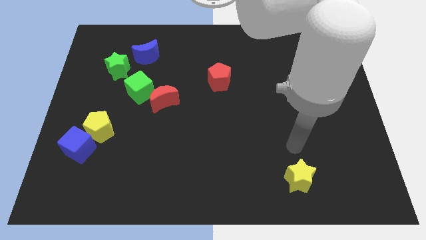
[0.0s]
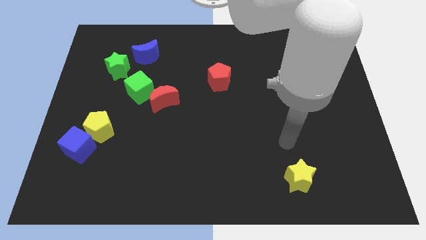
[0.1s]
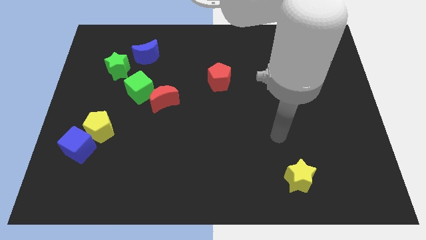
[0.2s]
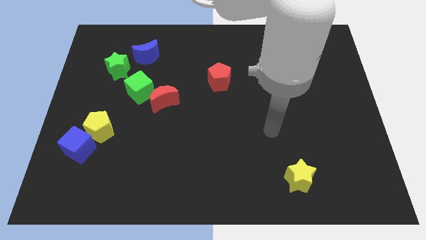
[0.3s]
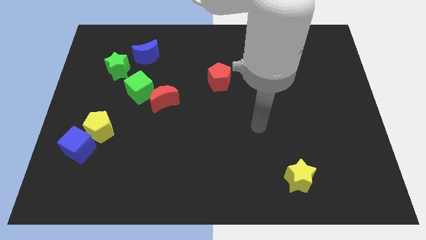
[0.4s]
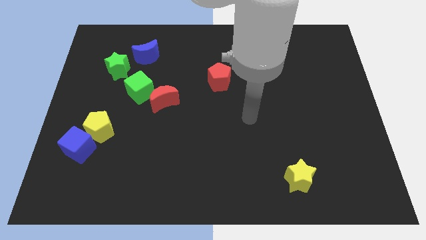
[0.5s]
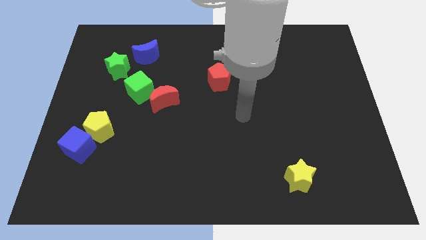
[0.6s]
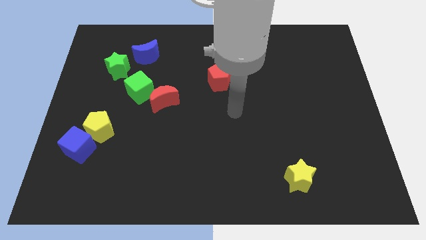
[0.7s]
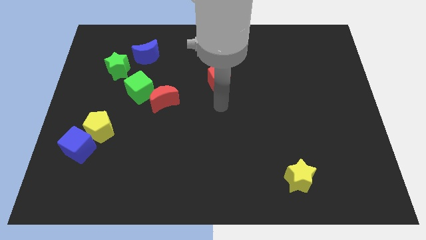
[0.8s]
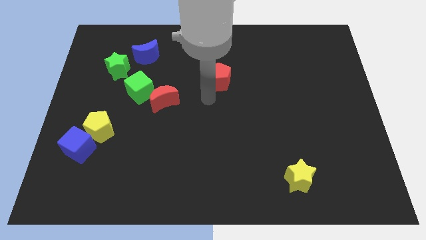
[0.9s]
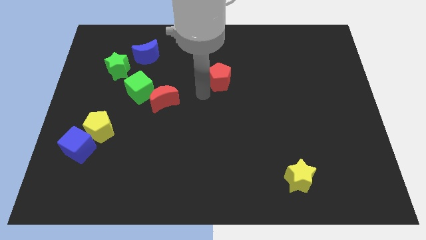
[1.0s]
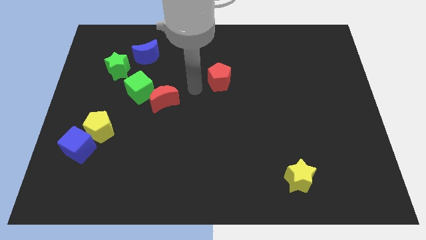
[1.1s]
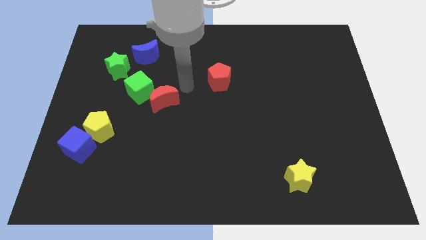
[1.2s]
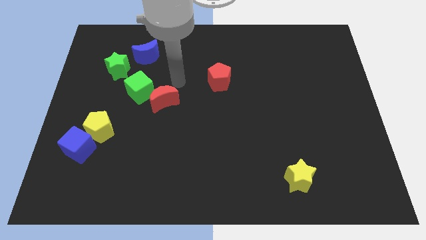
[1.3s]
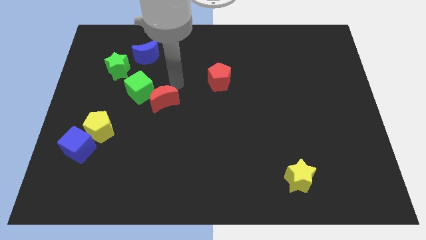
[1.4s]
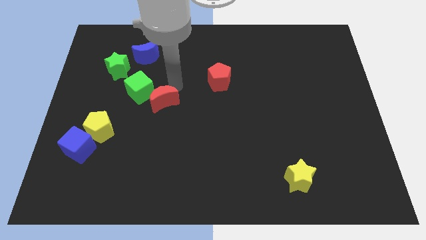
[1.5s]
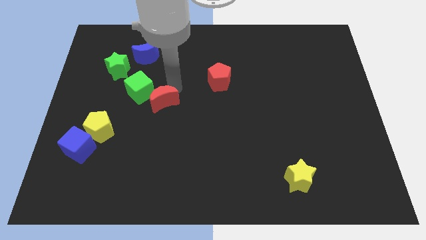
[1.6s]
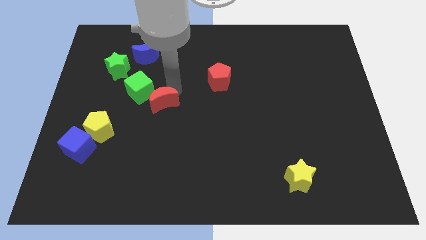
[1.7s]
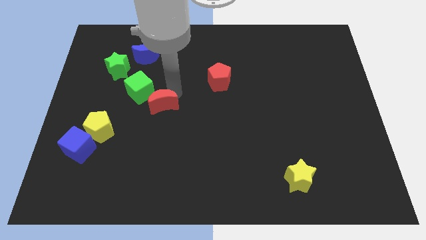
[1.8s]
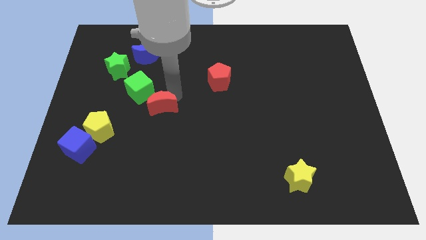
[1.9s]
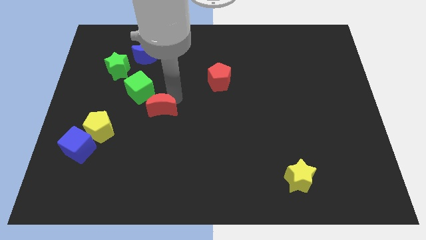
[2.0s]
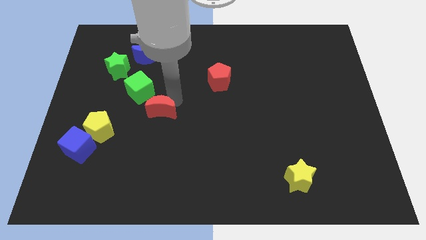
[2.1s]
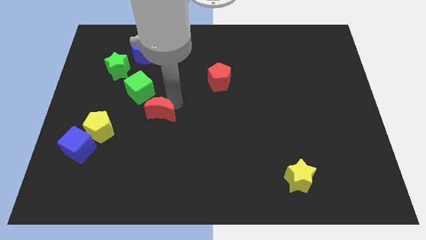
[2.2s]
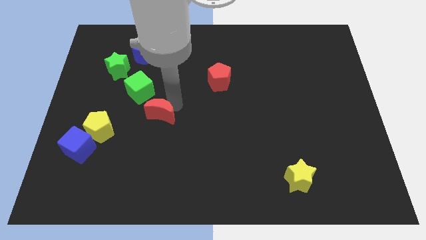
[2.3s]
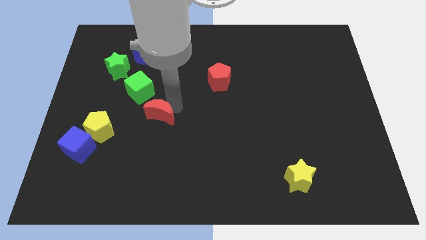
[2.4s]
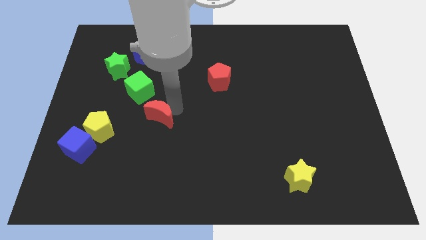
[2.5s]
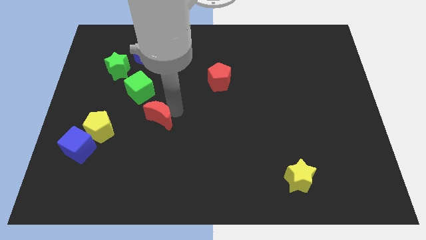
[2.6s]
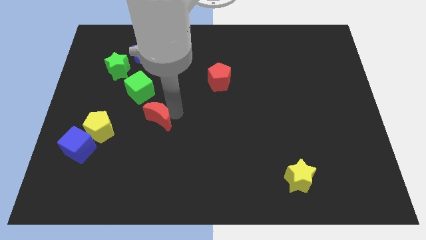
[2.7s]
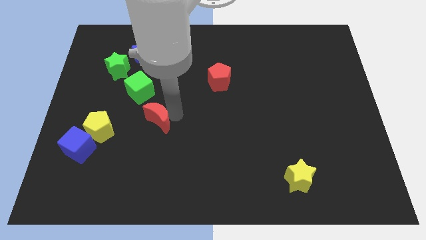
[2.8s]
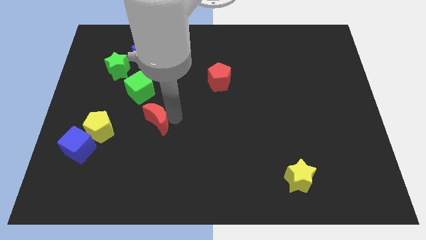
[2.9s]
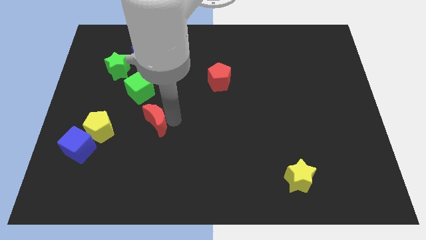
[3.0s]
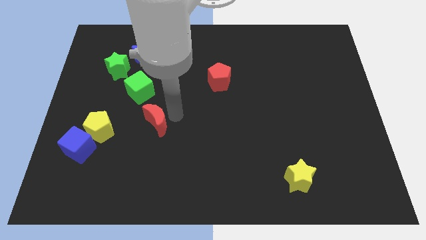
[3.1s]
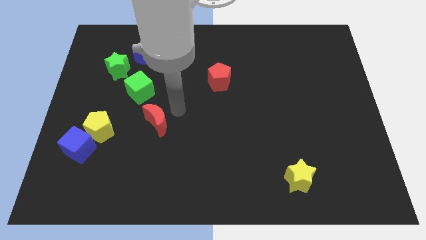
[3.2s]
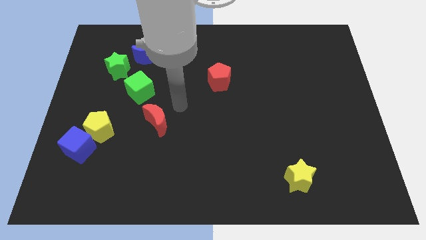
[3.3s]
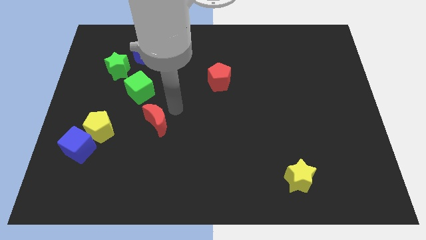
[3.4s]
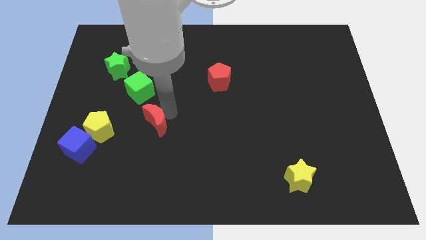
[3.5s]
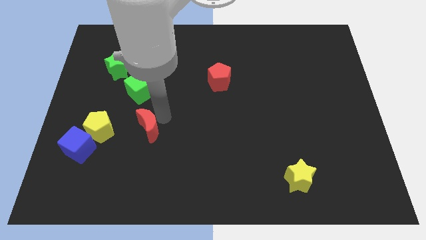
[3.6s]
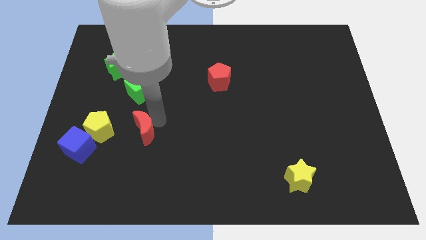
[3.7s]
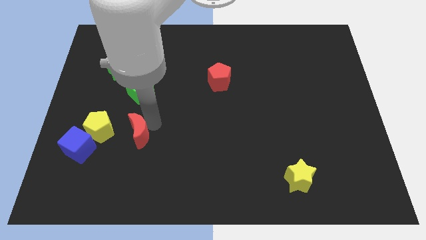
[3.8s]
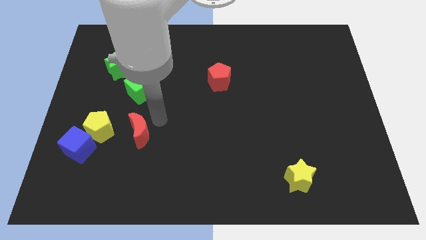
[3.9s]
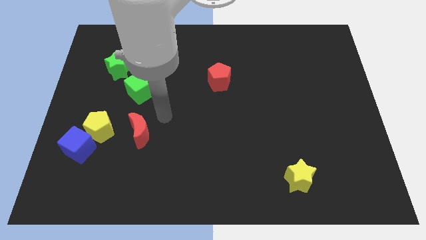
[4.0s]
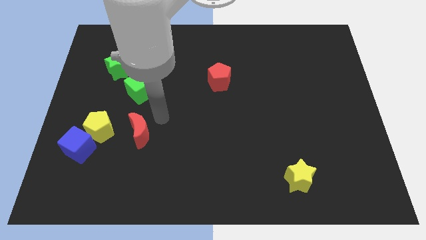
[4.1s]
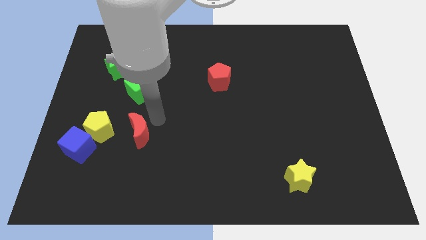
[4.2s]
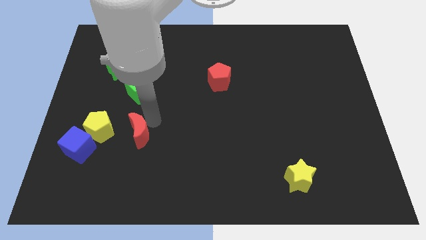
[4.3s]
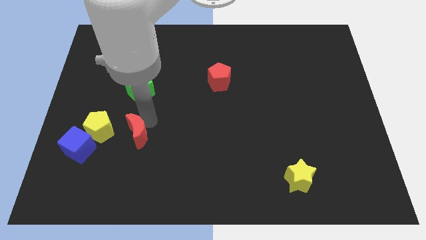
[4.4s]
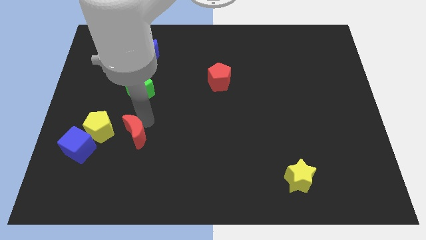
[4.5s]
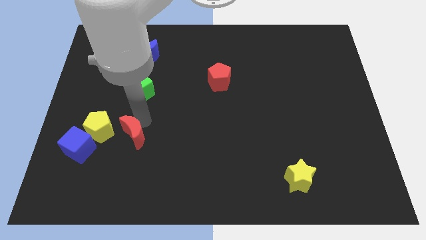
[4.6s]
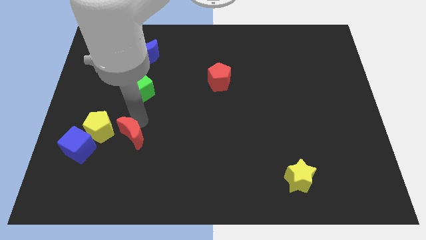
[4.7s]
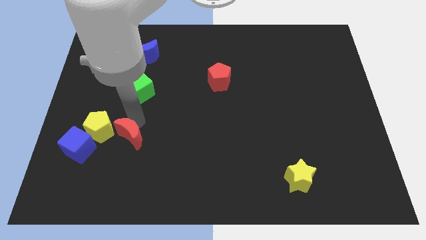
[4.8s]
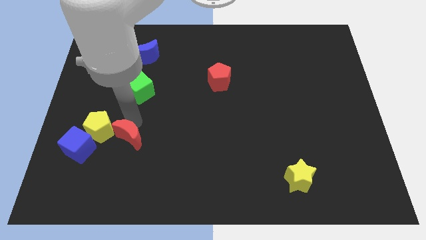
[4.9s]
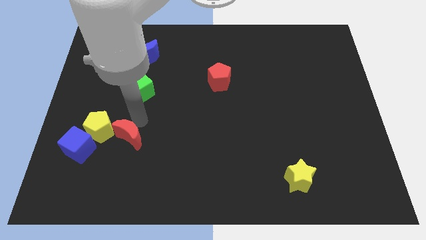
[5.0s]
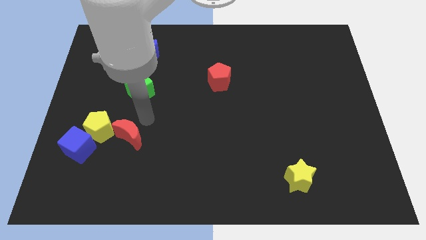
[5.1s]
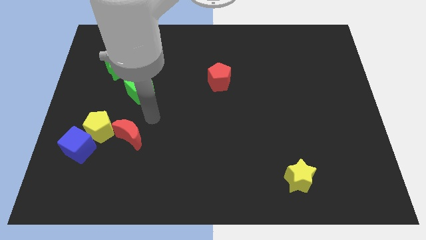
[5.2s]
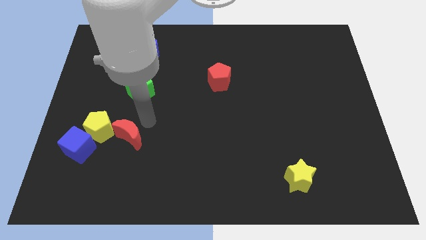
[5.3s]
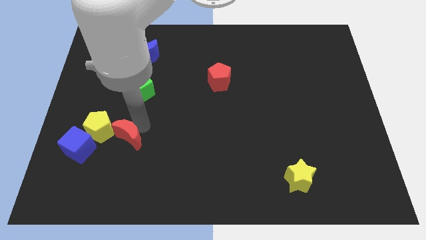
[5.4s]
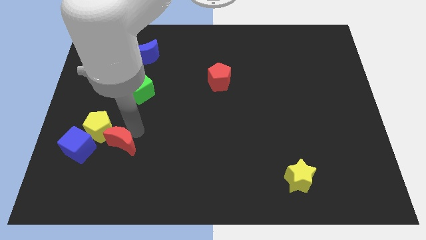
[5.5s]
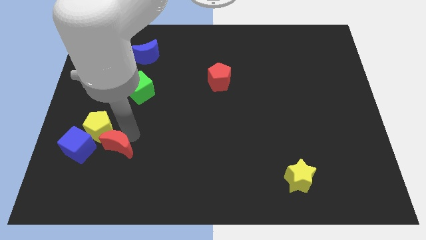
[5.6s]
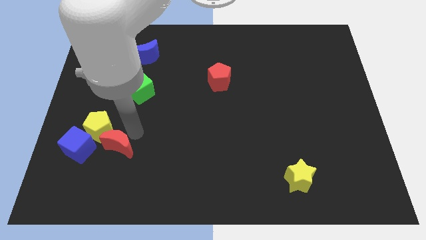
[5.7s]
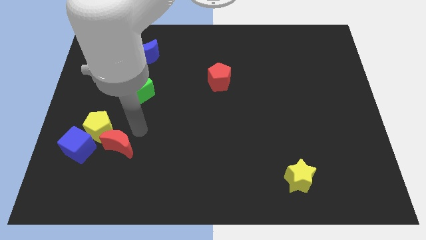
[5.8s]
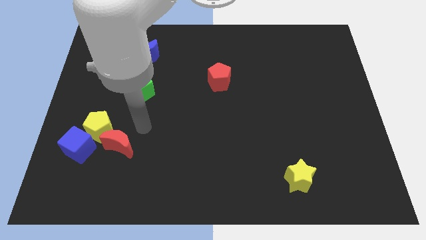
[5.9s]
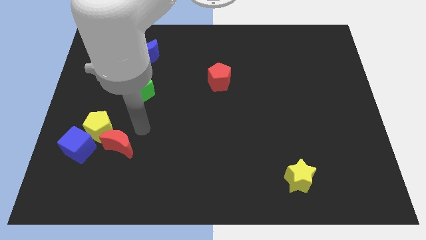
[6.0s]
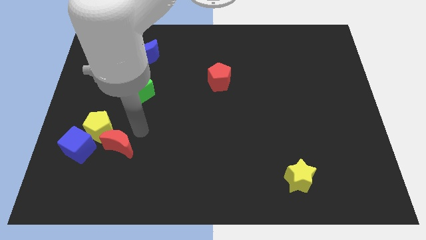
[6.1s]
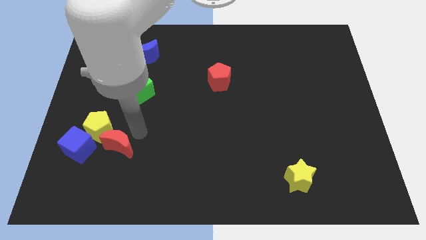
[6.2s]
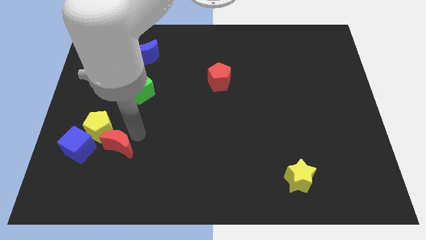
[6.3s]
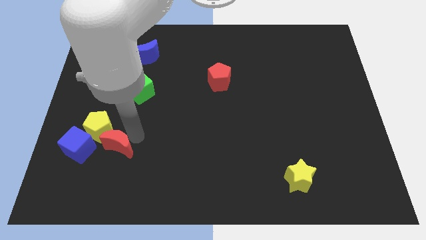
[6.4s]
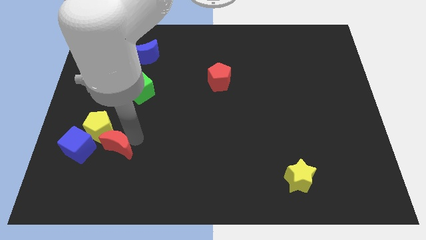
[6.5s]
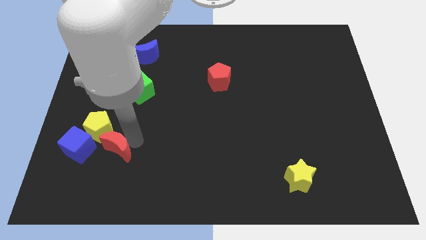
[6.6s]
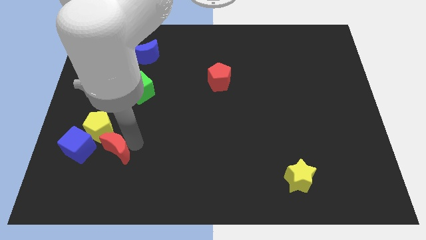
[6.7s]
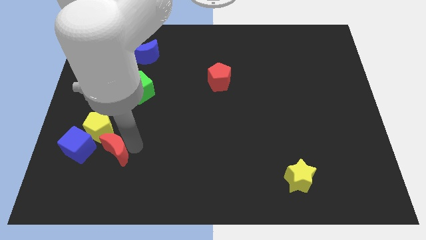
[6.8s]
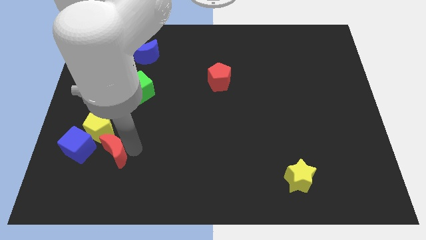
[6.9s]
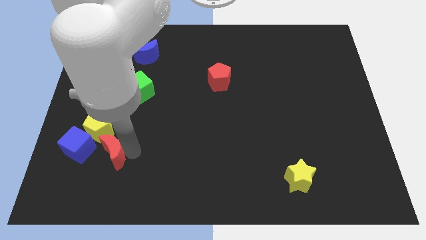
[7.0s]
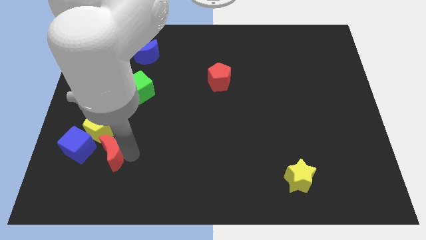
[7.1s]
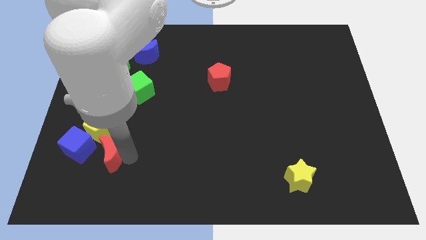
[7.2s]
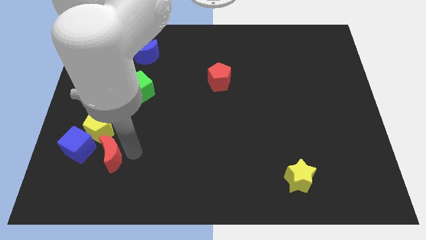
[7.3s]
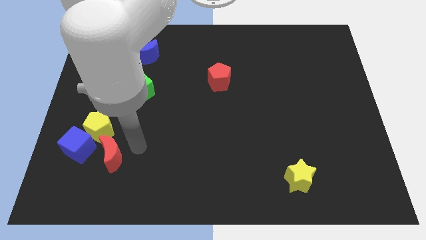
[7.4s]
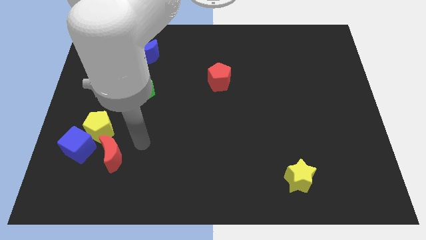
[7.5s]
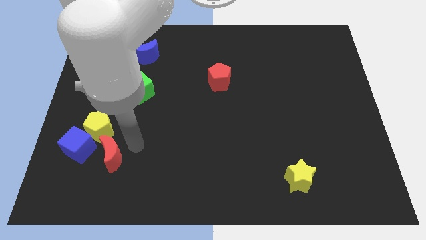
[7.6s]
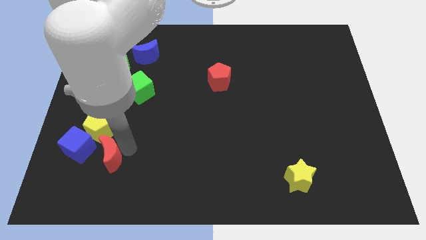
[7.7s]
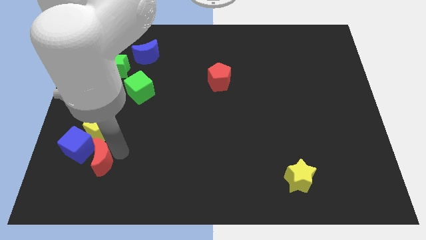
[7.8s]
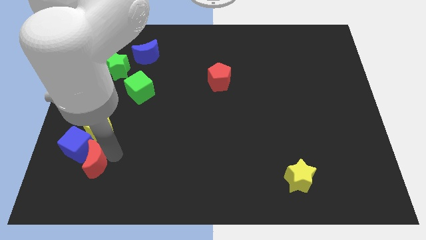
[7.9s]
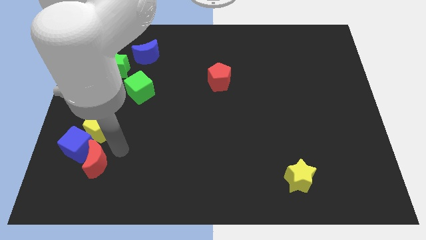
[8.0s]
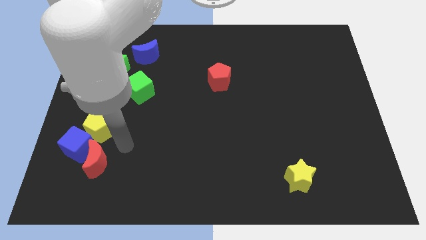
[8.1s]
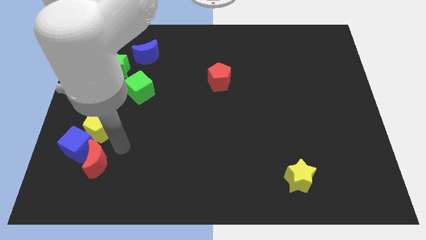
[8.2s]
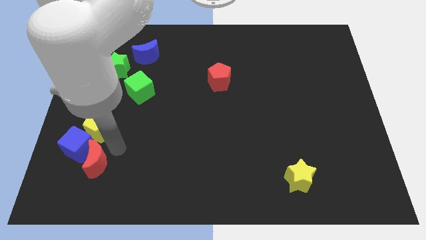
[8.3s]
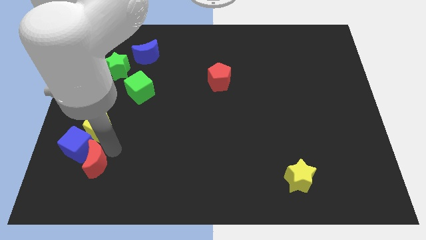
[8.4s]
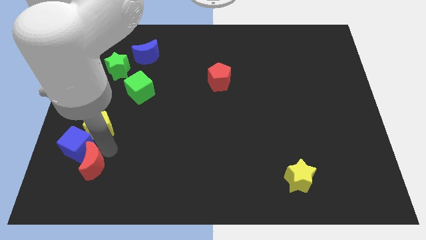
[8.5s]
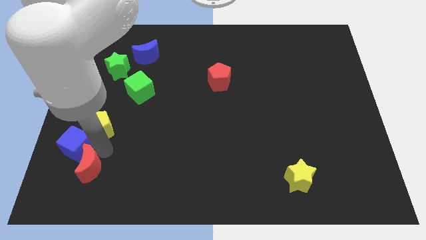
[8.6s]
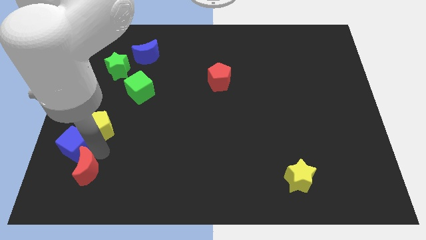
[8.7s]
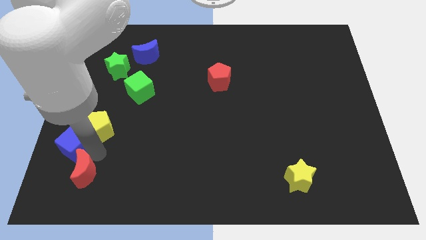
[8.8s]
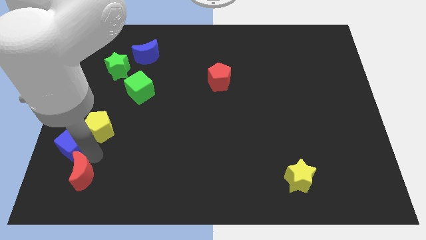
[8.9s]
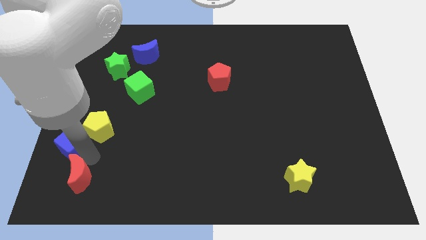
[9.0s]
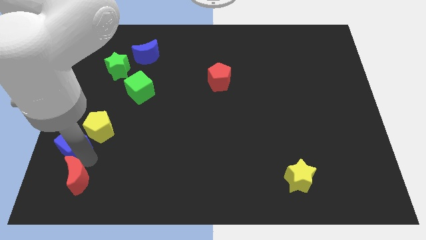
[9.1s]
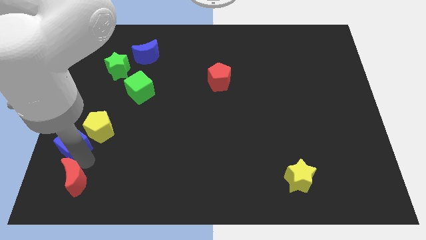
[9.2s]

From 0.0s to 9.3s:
put the red moon to the bottom left of the board
